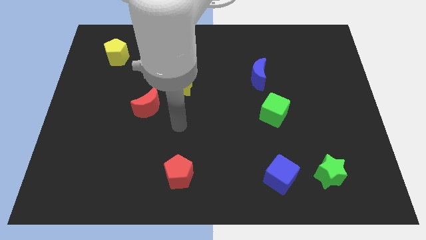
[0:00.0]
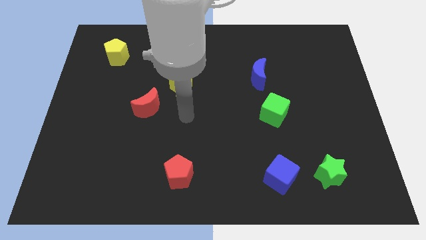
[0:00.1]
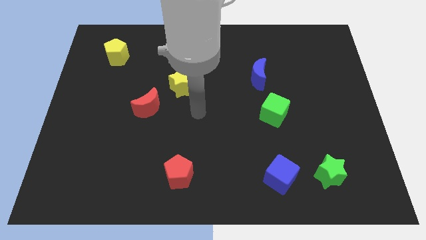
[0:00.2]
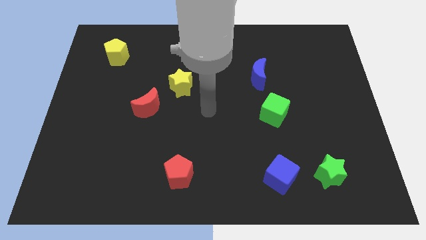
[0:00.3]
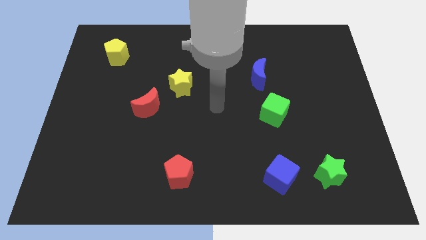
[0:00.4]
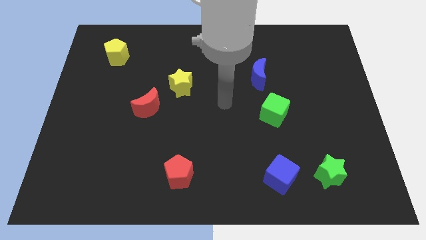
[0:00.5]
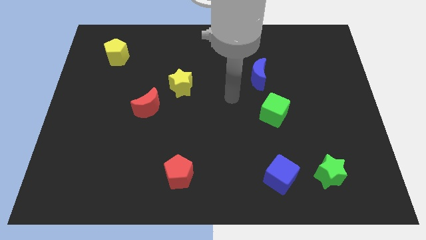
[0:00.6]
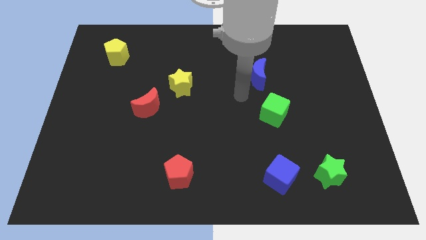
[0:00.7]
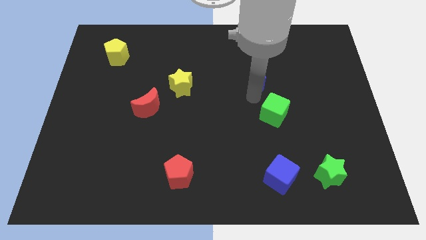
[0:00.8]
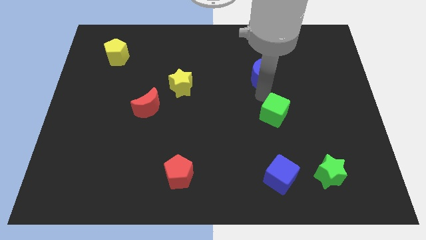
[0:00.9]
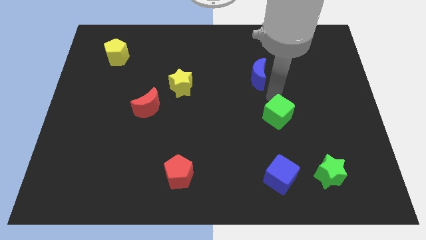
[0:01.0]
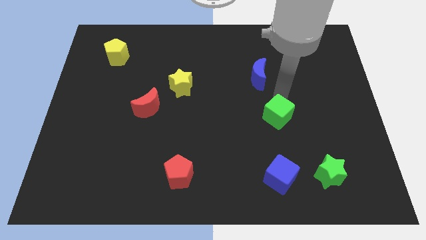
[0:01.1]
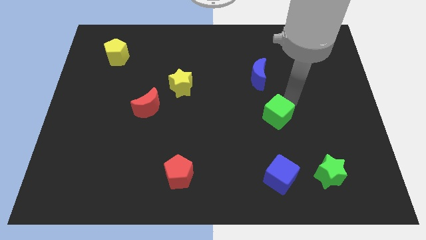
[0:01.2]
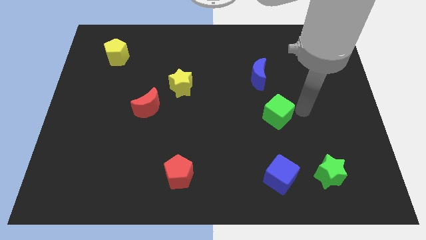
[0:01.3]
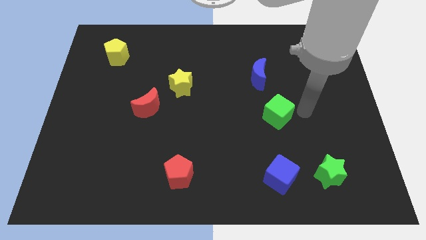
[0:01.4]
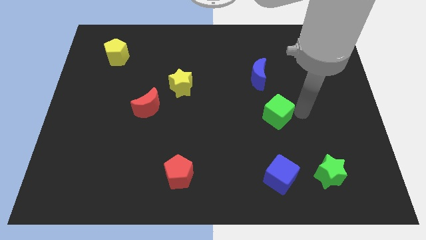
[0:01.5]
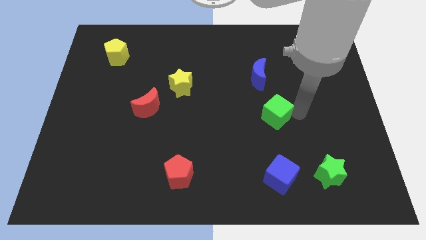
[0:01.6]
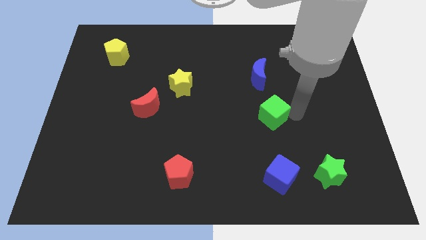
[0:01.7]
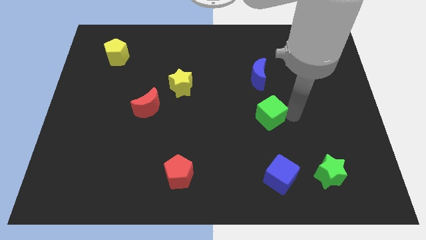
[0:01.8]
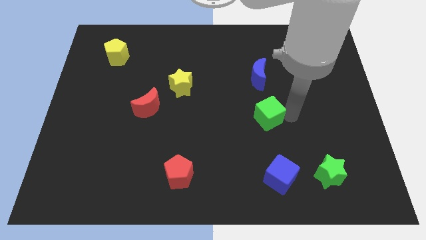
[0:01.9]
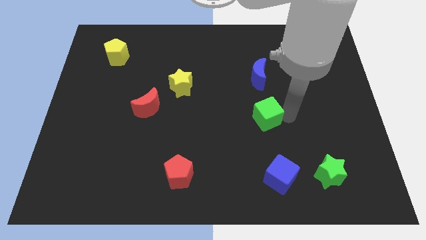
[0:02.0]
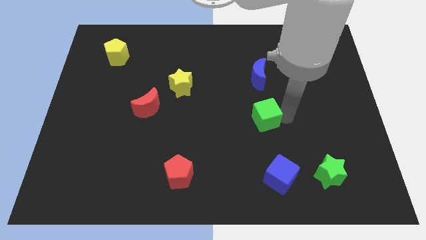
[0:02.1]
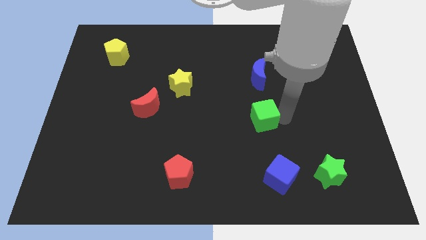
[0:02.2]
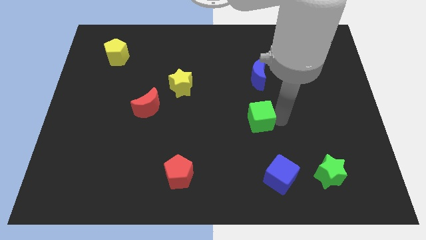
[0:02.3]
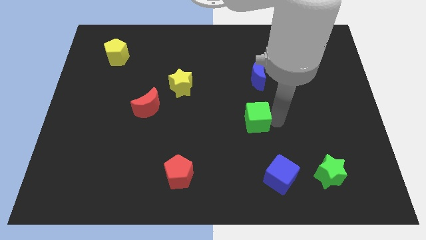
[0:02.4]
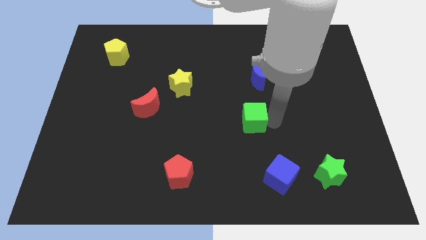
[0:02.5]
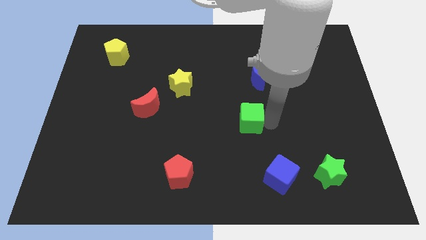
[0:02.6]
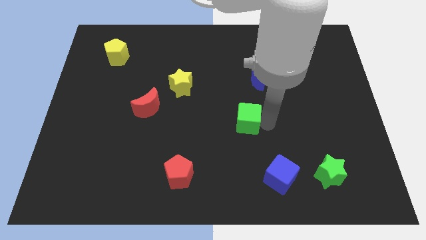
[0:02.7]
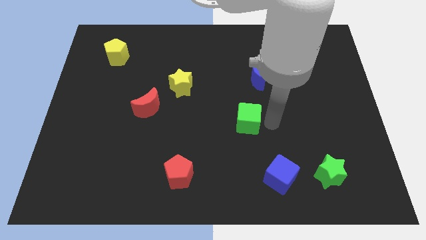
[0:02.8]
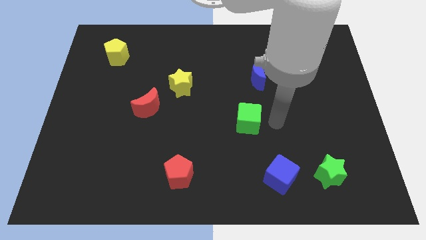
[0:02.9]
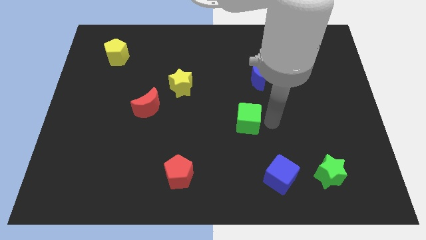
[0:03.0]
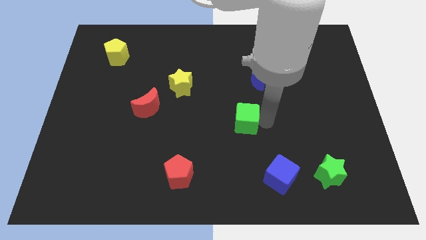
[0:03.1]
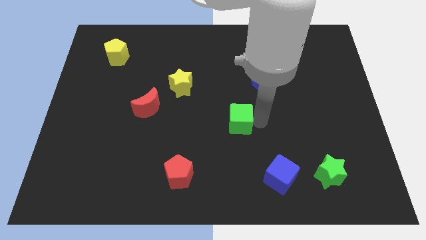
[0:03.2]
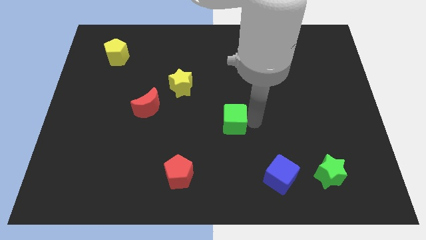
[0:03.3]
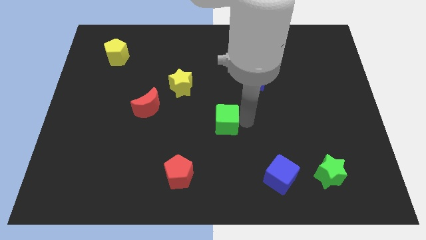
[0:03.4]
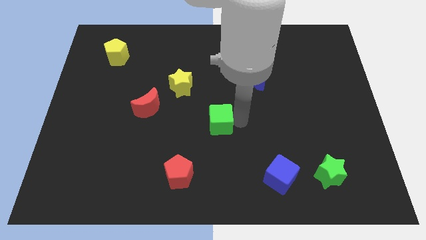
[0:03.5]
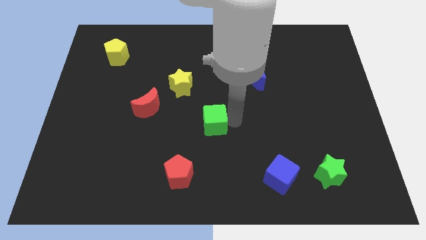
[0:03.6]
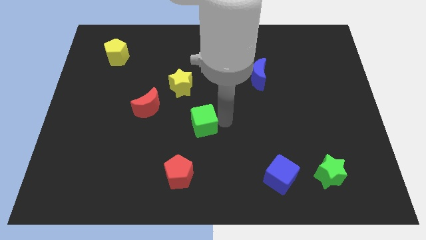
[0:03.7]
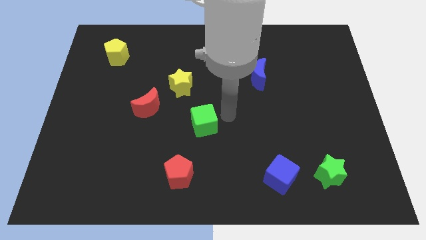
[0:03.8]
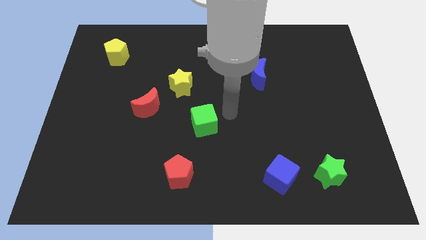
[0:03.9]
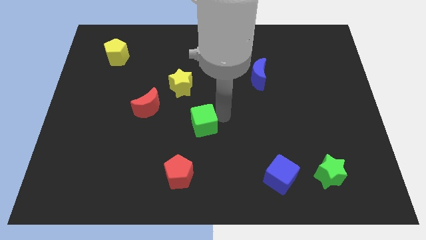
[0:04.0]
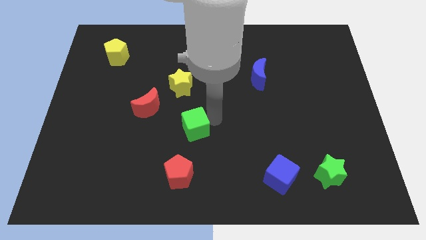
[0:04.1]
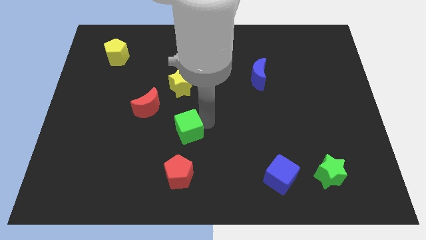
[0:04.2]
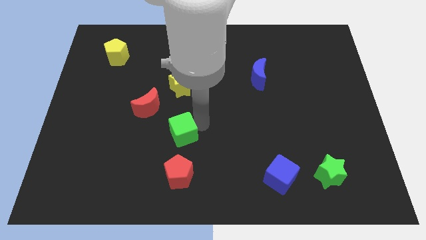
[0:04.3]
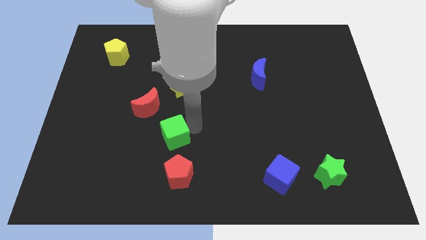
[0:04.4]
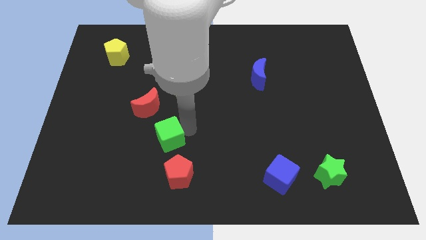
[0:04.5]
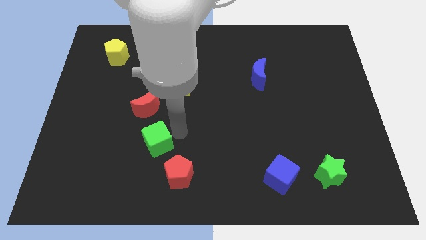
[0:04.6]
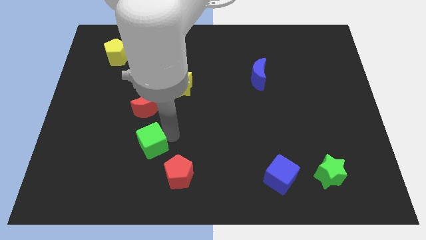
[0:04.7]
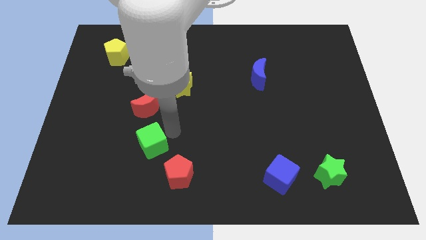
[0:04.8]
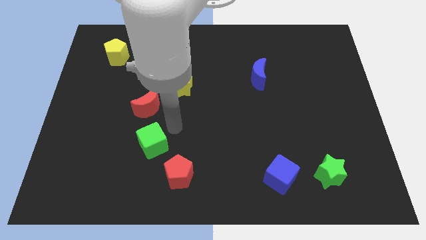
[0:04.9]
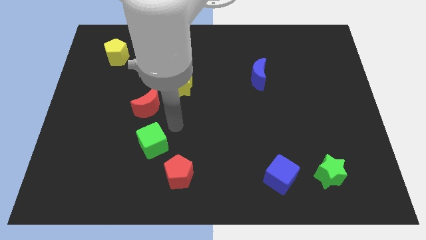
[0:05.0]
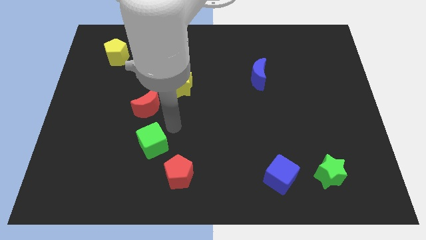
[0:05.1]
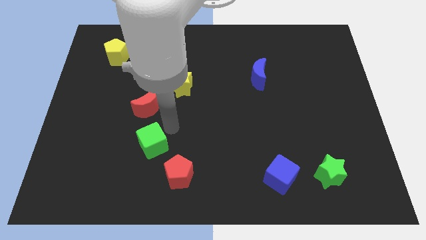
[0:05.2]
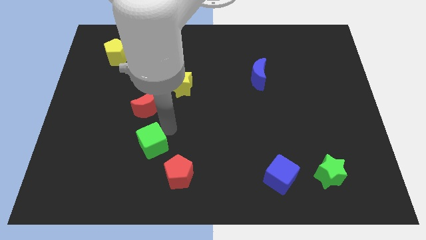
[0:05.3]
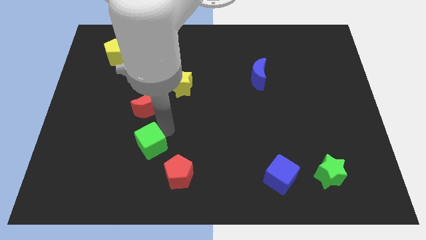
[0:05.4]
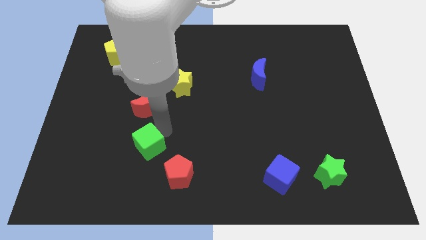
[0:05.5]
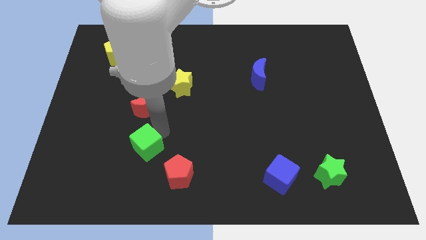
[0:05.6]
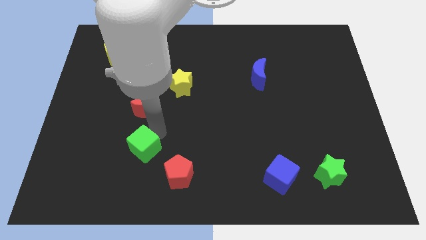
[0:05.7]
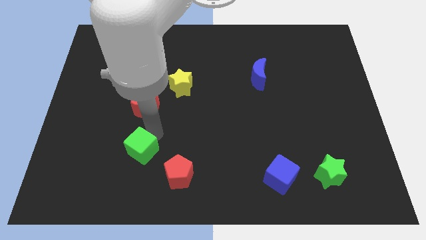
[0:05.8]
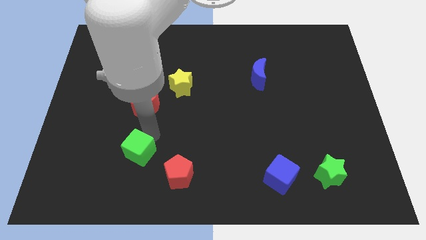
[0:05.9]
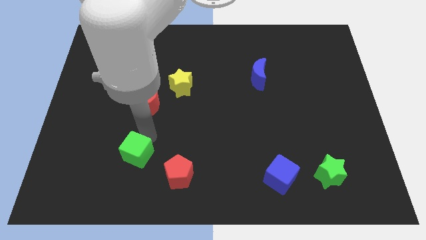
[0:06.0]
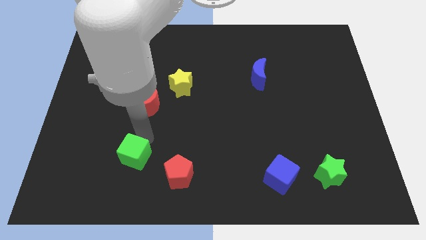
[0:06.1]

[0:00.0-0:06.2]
slide the green cube to the left side of the red pentagon

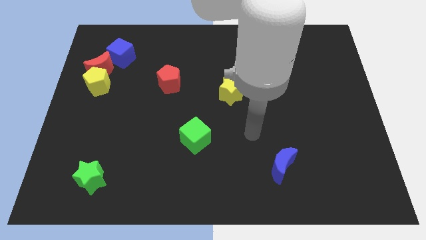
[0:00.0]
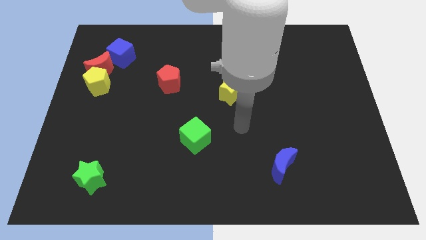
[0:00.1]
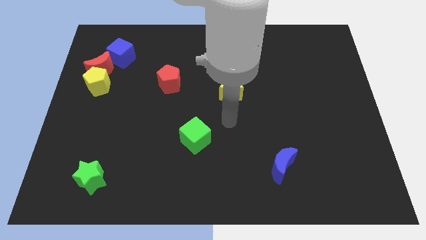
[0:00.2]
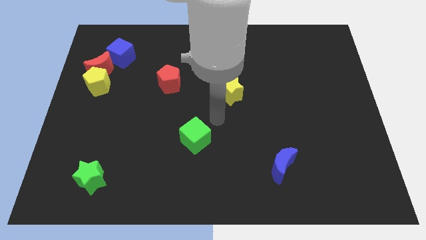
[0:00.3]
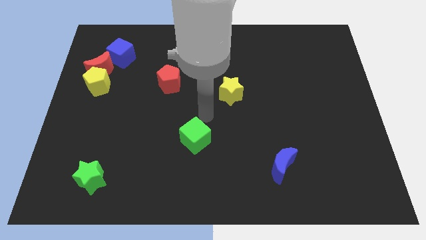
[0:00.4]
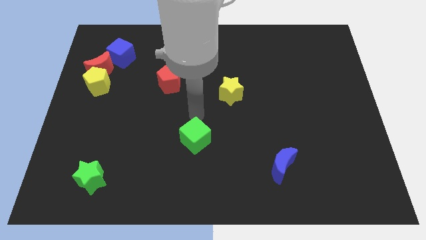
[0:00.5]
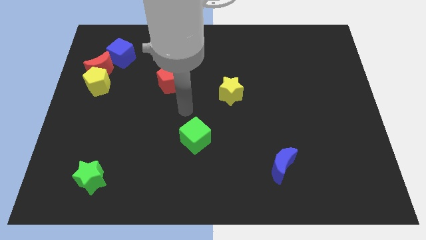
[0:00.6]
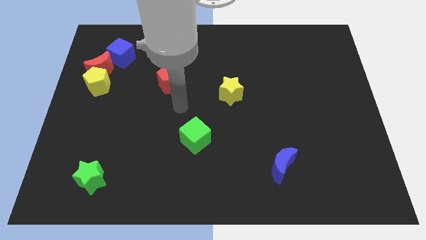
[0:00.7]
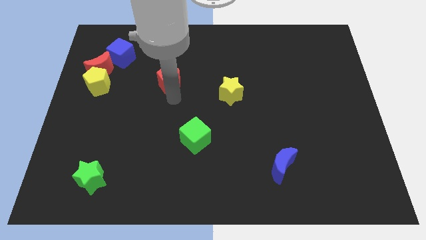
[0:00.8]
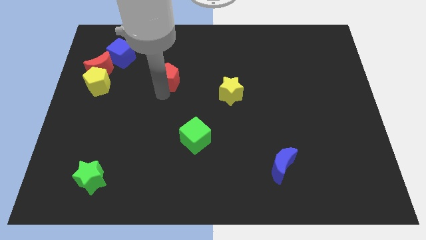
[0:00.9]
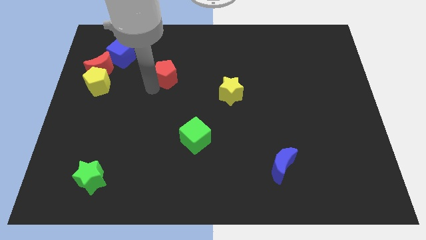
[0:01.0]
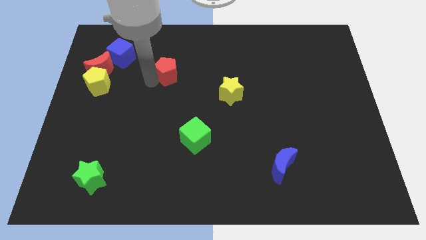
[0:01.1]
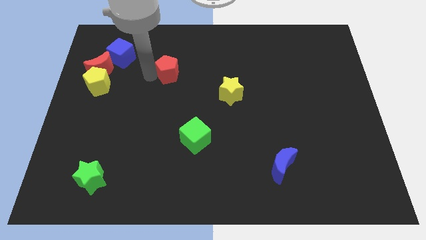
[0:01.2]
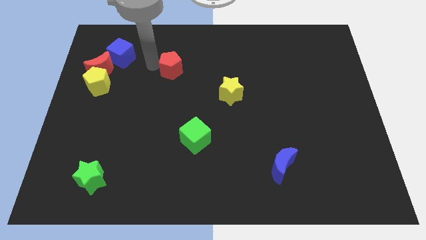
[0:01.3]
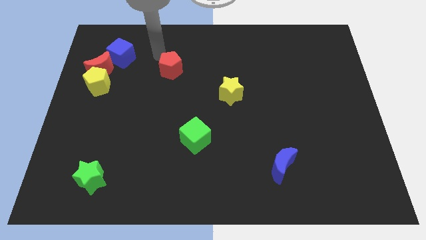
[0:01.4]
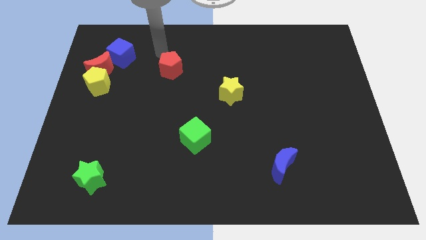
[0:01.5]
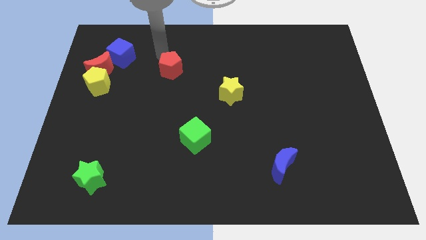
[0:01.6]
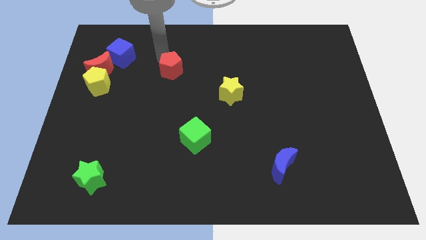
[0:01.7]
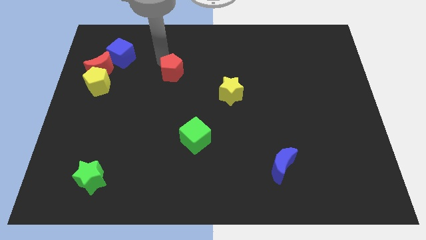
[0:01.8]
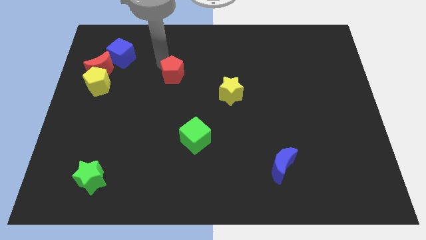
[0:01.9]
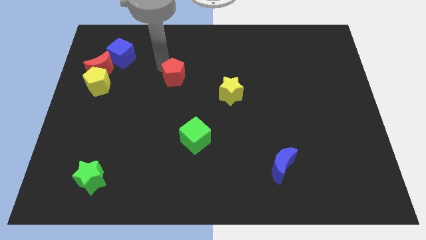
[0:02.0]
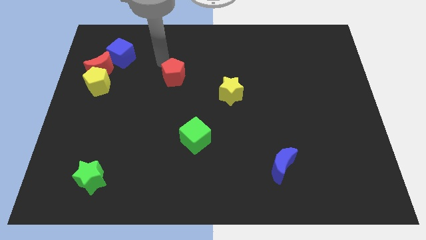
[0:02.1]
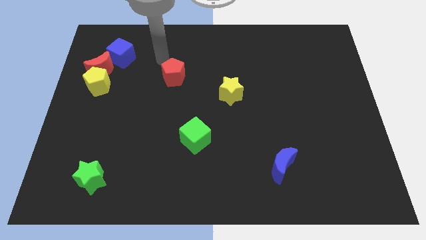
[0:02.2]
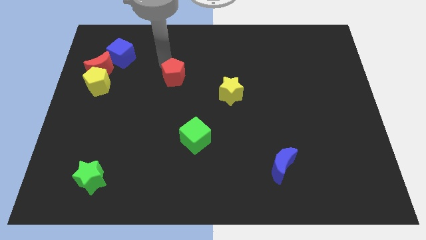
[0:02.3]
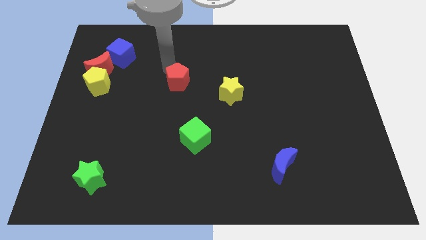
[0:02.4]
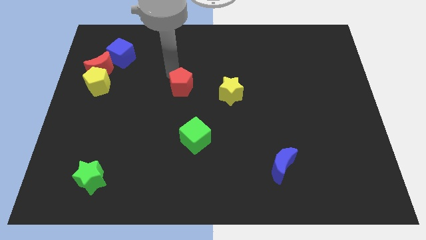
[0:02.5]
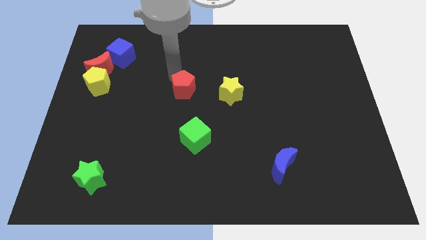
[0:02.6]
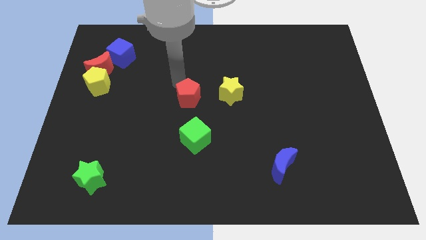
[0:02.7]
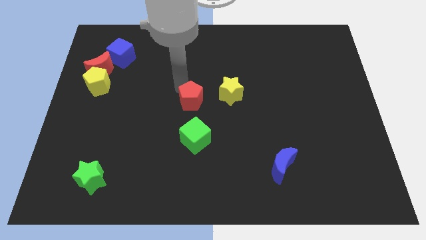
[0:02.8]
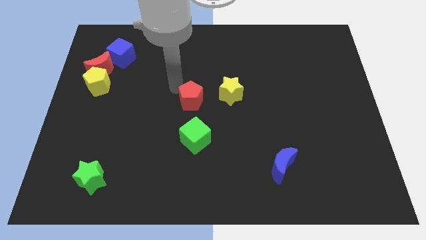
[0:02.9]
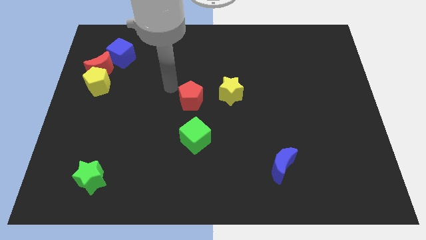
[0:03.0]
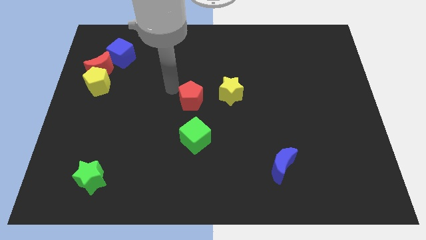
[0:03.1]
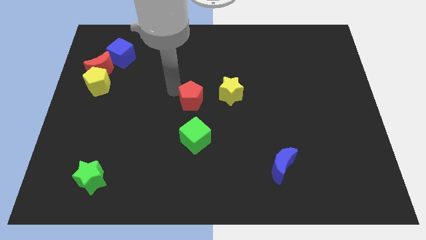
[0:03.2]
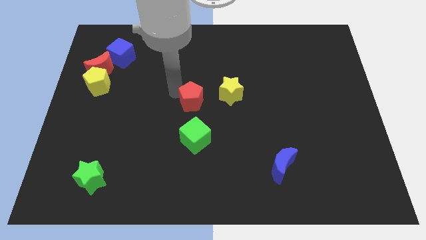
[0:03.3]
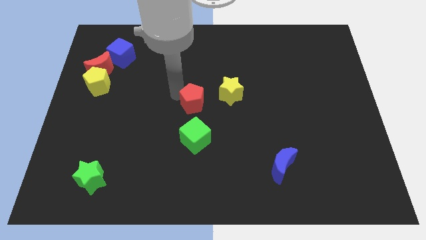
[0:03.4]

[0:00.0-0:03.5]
put the red pentagon diagonally down and to the left of the yellow star
